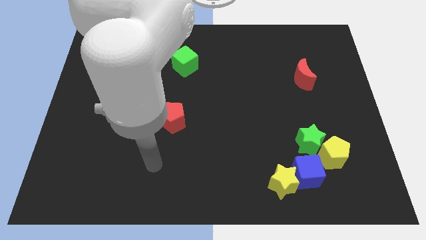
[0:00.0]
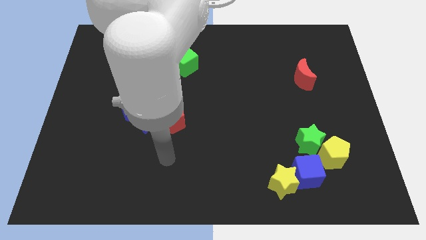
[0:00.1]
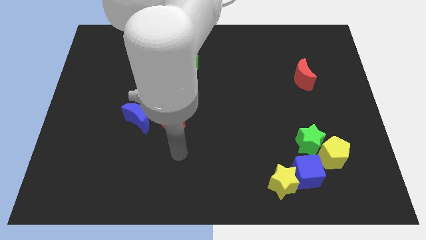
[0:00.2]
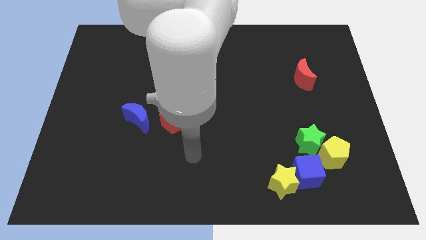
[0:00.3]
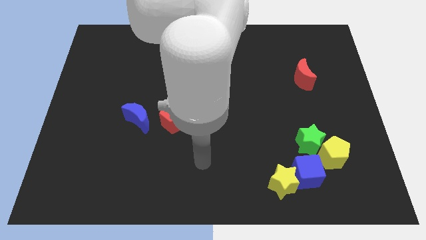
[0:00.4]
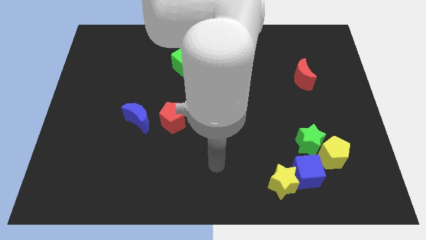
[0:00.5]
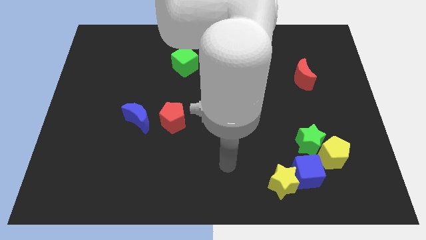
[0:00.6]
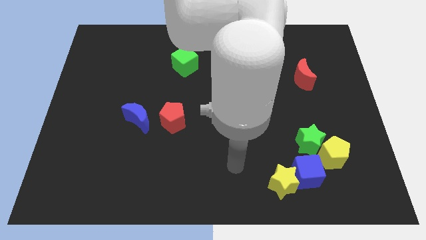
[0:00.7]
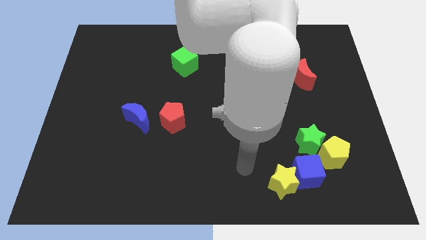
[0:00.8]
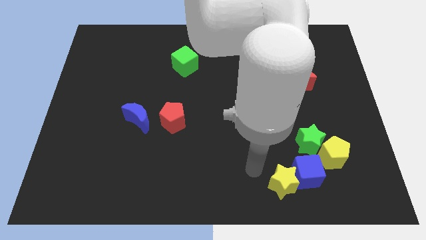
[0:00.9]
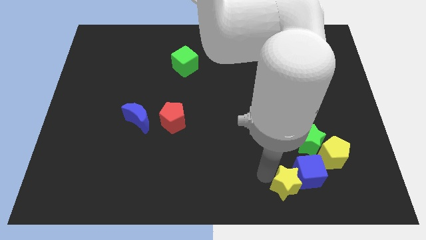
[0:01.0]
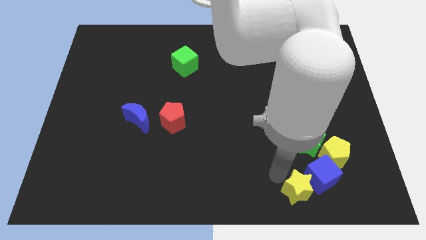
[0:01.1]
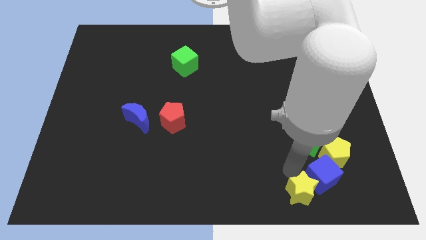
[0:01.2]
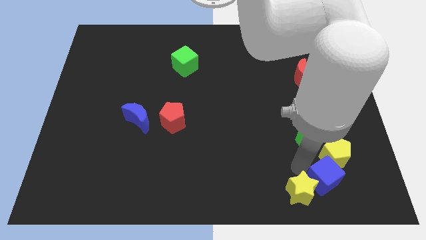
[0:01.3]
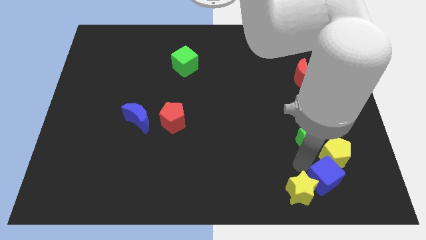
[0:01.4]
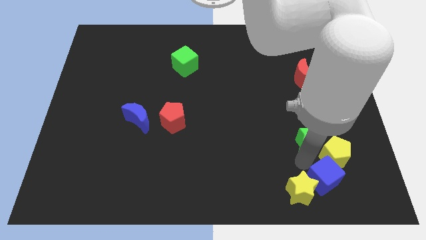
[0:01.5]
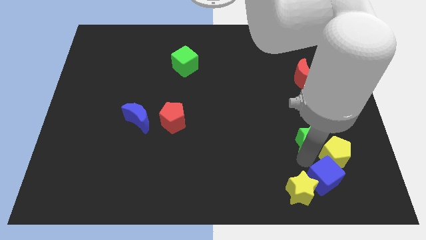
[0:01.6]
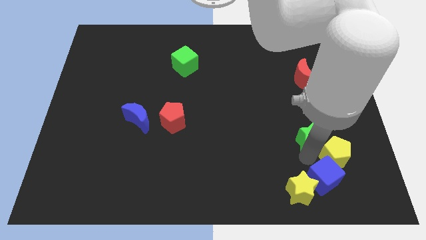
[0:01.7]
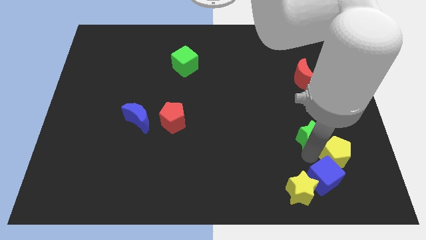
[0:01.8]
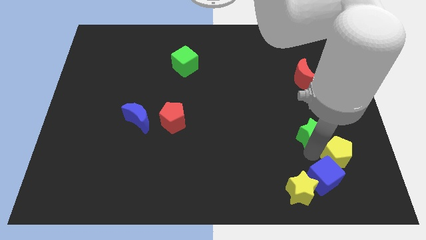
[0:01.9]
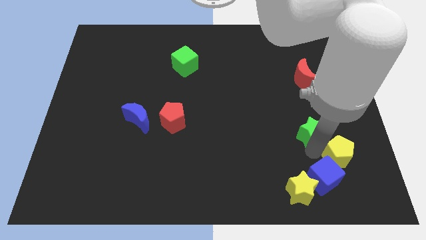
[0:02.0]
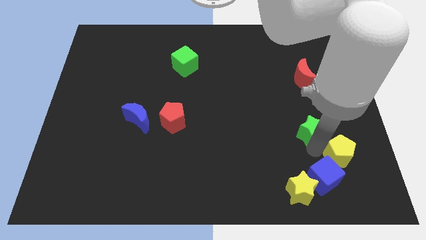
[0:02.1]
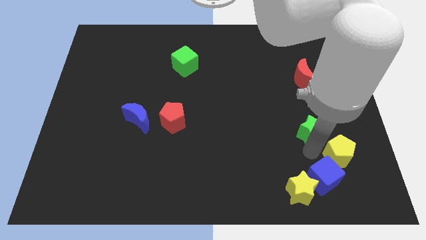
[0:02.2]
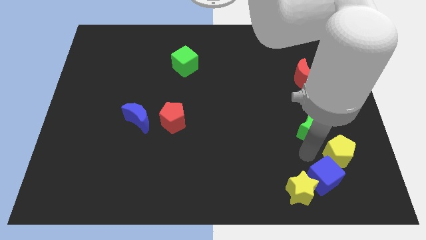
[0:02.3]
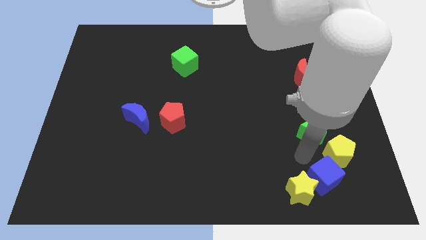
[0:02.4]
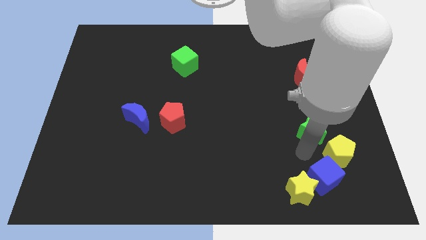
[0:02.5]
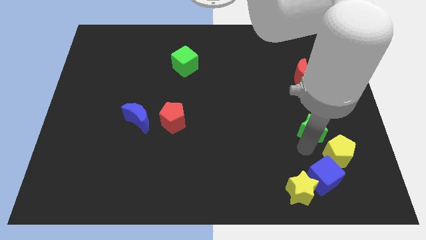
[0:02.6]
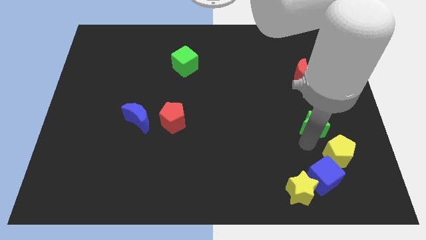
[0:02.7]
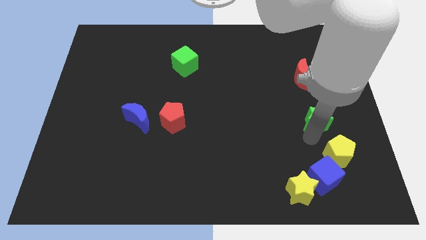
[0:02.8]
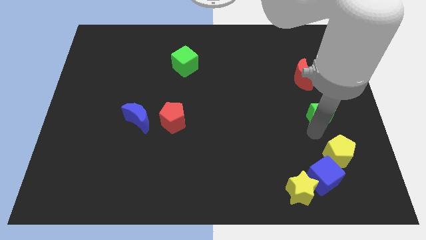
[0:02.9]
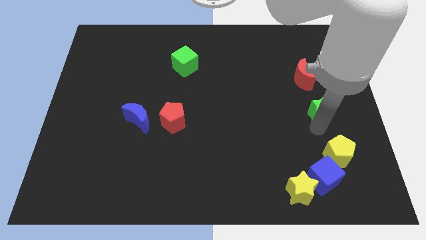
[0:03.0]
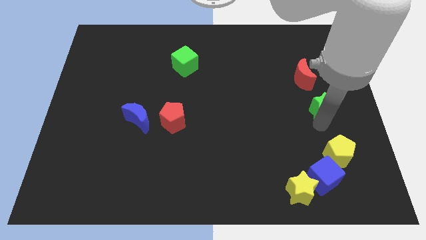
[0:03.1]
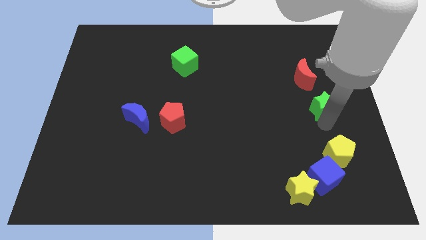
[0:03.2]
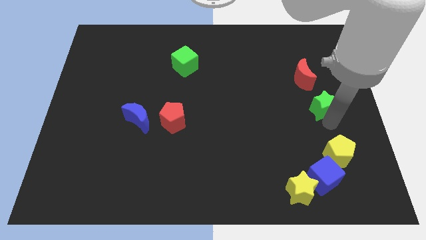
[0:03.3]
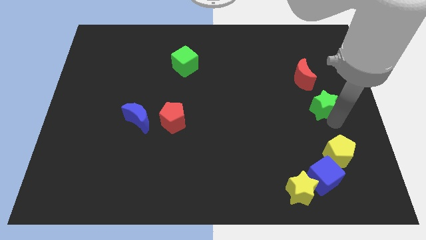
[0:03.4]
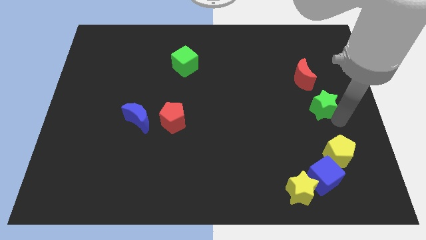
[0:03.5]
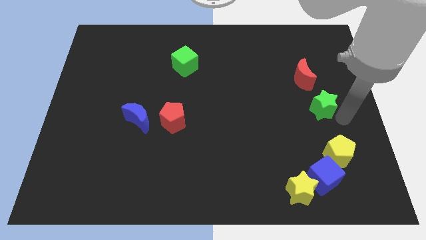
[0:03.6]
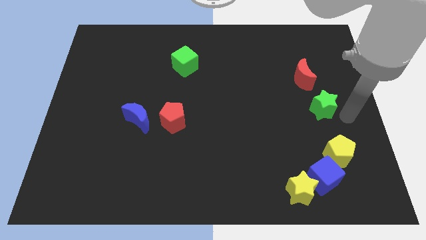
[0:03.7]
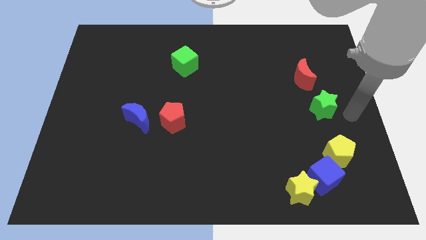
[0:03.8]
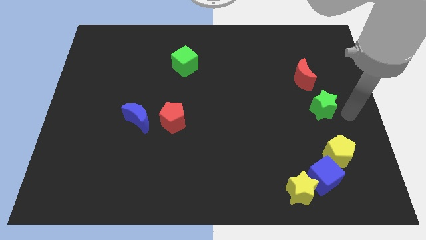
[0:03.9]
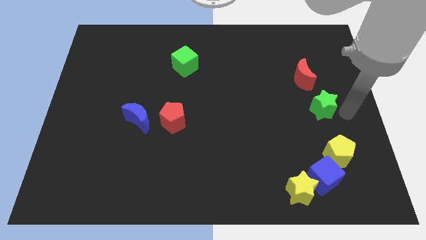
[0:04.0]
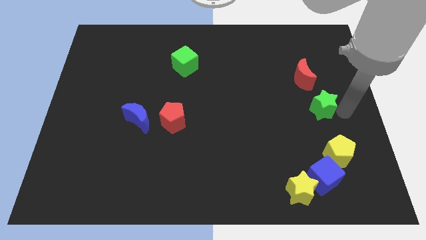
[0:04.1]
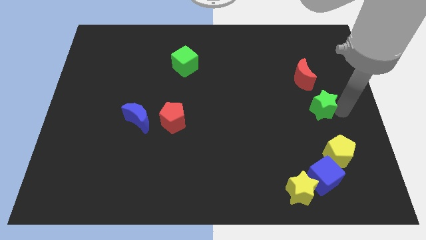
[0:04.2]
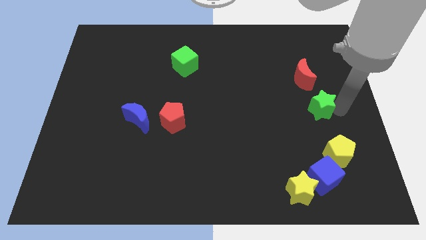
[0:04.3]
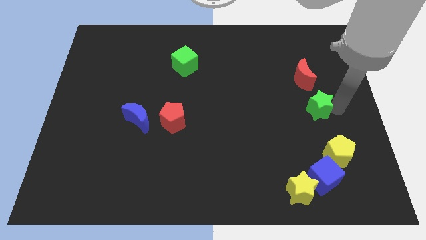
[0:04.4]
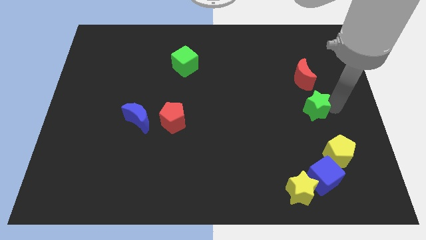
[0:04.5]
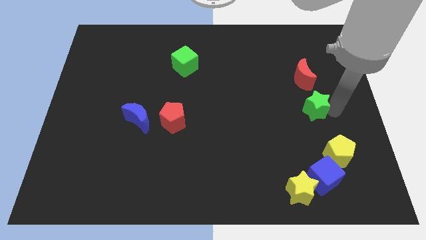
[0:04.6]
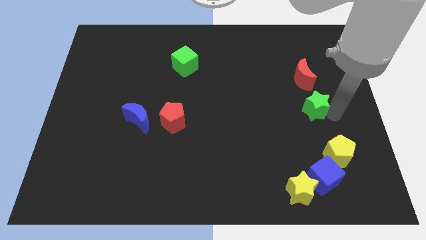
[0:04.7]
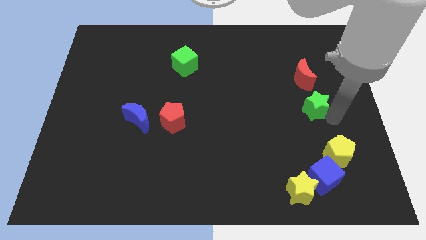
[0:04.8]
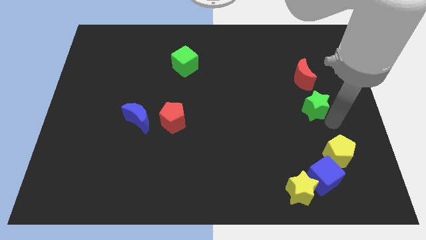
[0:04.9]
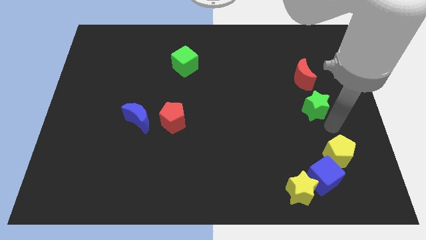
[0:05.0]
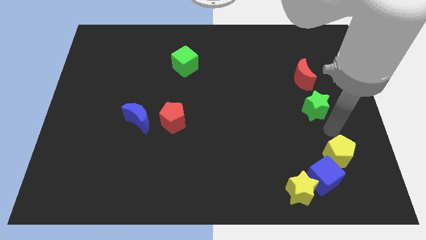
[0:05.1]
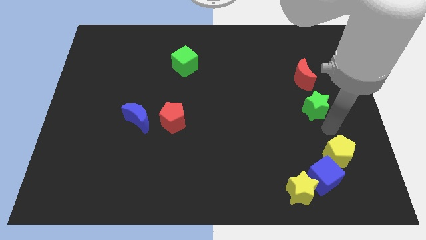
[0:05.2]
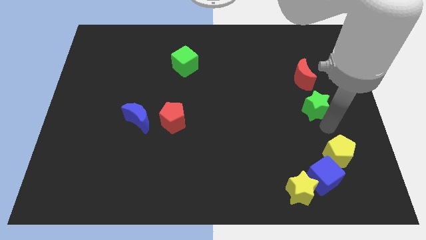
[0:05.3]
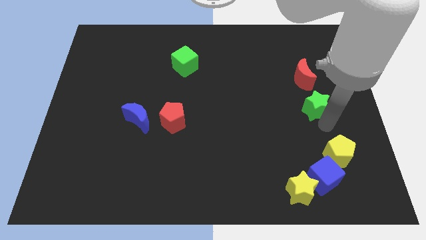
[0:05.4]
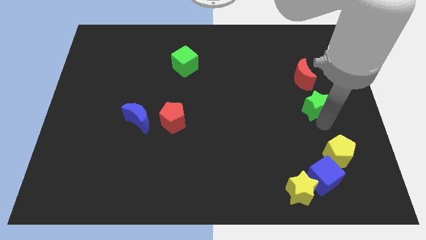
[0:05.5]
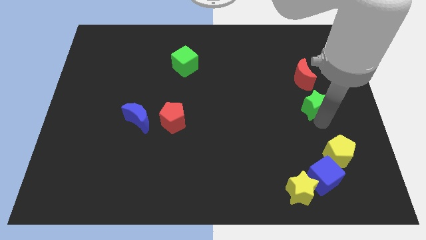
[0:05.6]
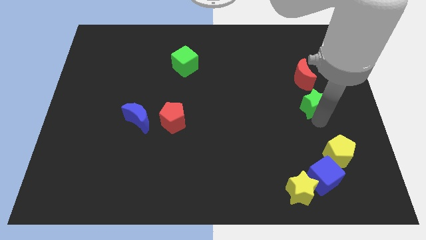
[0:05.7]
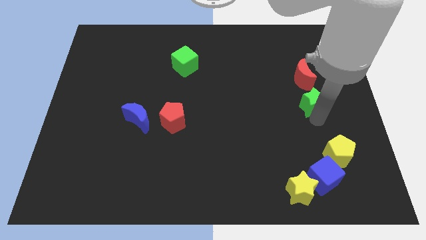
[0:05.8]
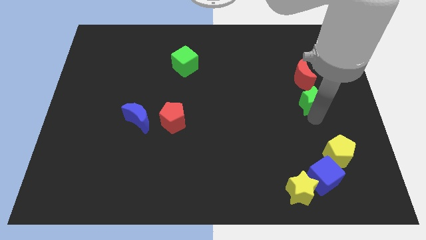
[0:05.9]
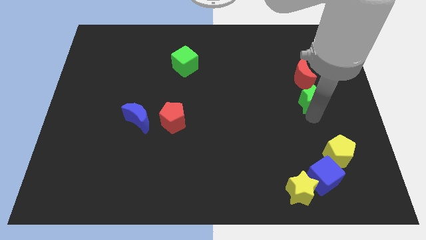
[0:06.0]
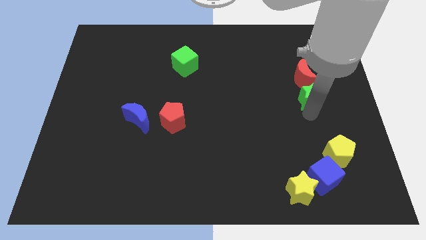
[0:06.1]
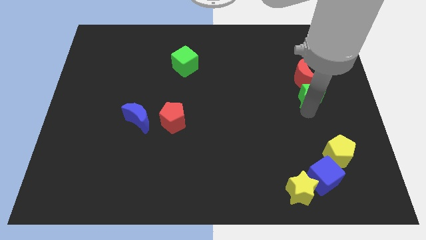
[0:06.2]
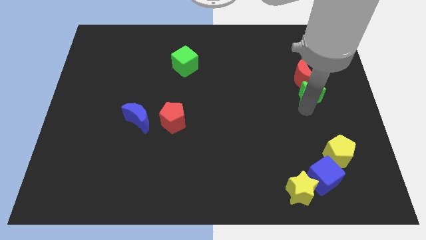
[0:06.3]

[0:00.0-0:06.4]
slide the green star close to the red moon

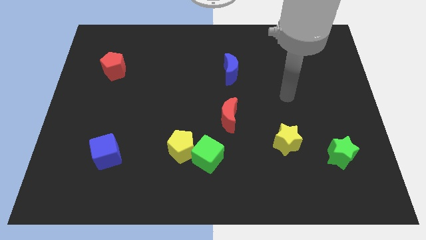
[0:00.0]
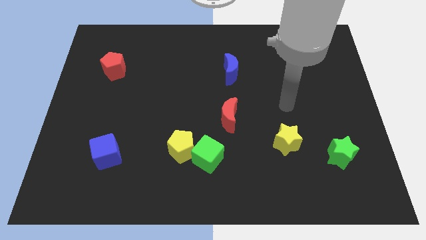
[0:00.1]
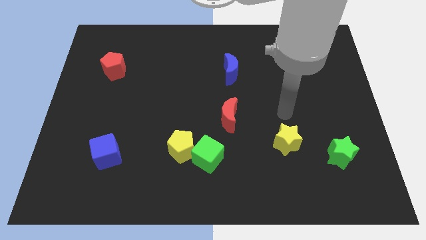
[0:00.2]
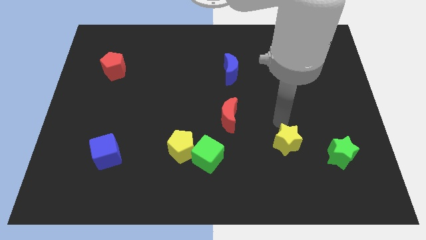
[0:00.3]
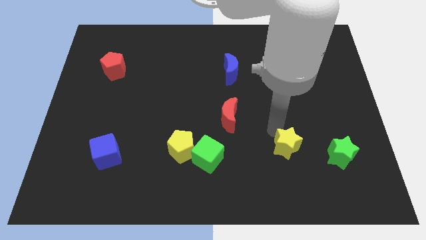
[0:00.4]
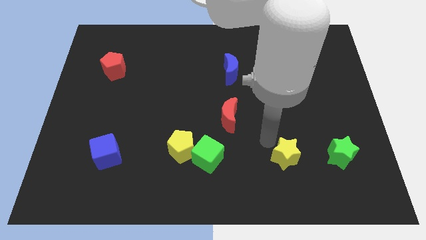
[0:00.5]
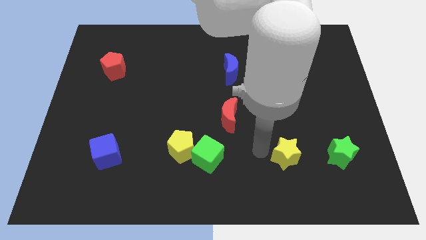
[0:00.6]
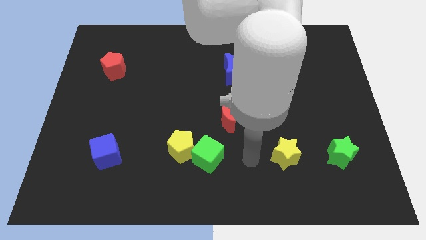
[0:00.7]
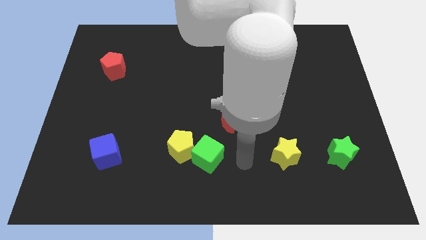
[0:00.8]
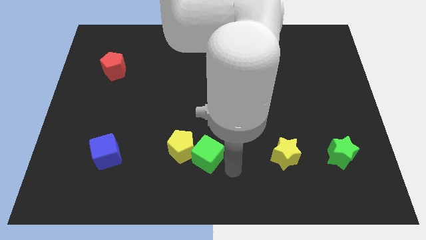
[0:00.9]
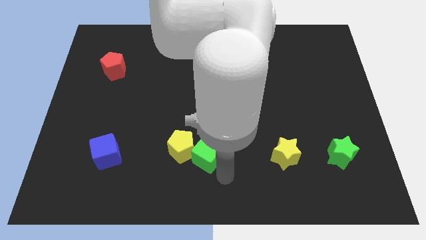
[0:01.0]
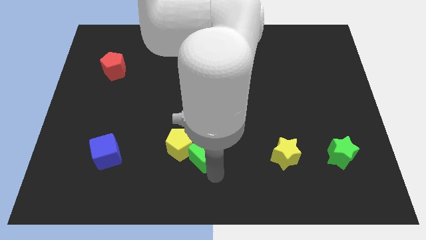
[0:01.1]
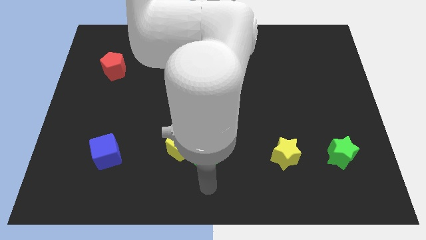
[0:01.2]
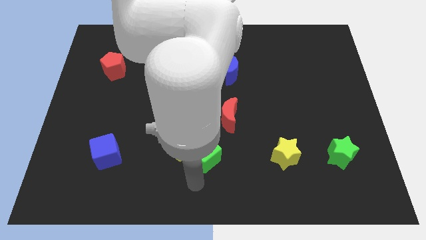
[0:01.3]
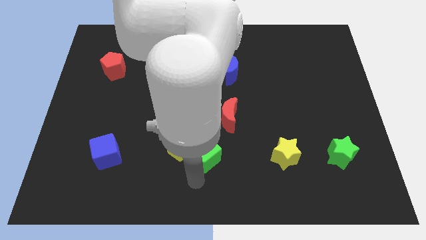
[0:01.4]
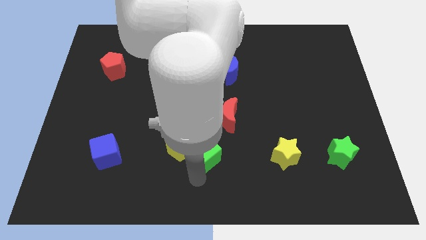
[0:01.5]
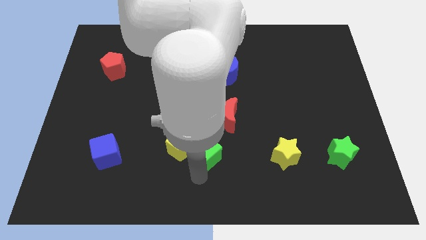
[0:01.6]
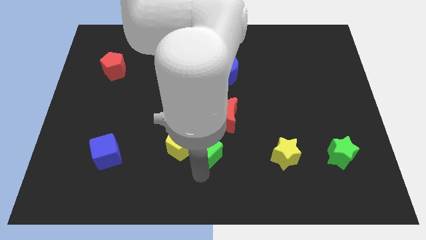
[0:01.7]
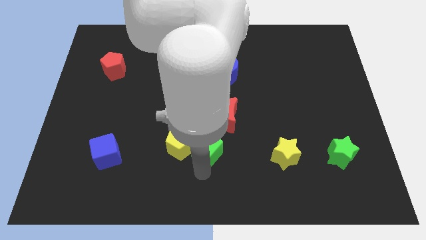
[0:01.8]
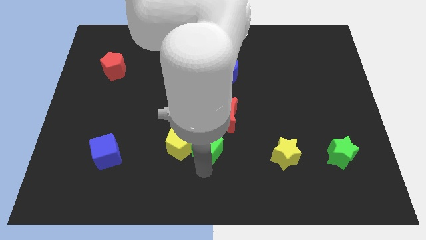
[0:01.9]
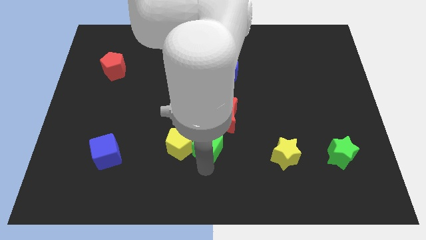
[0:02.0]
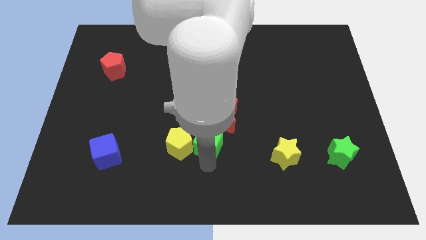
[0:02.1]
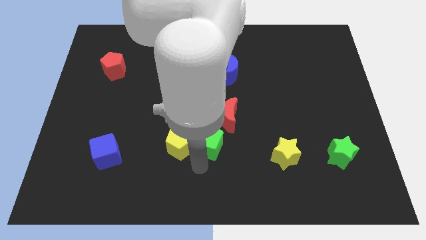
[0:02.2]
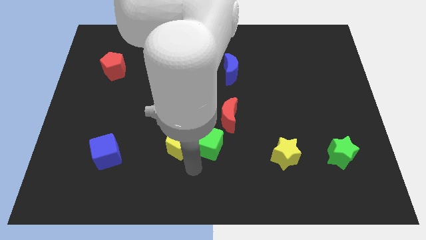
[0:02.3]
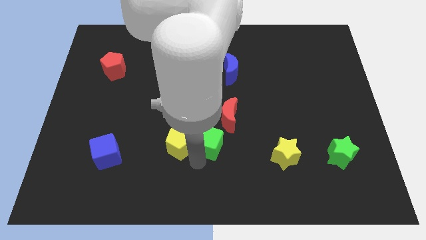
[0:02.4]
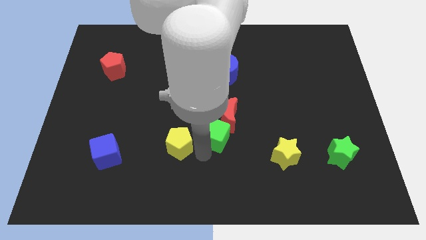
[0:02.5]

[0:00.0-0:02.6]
move the green cube close to the red moon
